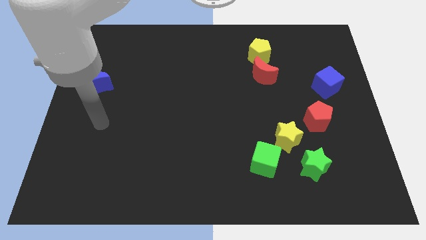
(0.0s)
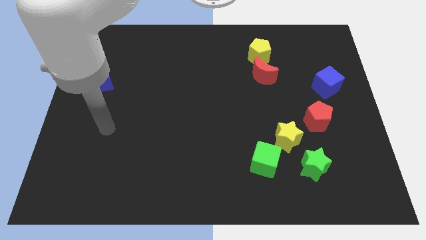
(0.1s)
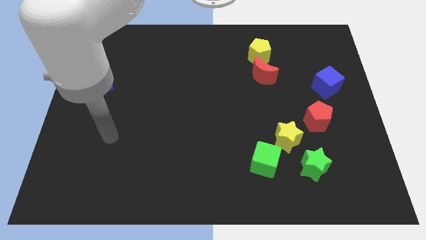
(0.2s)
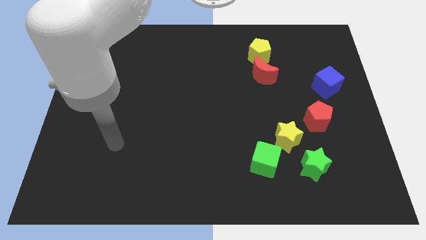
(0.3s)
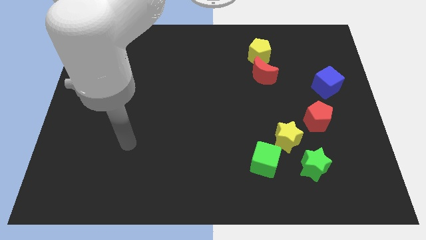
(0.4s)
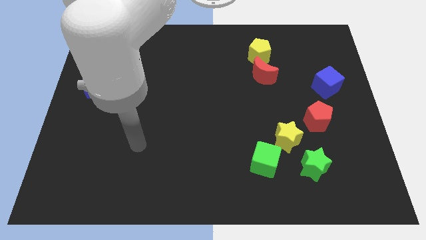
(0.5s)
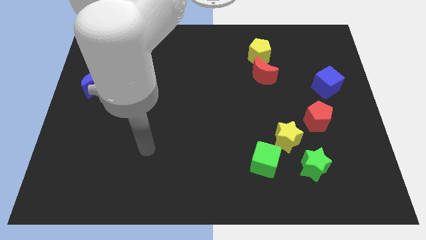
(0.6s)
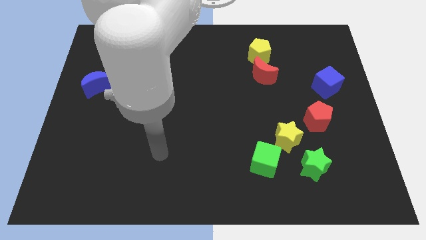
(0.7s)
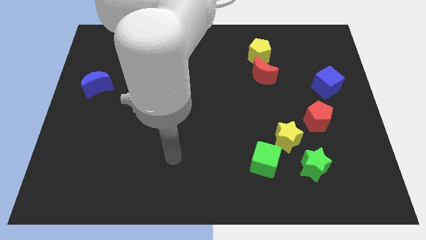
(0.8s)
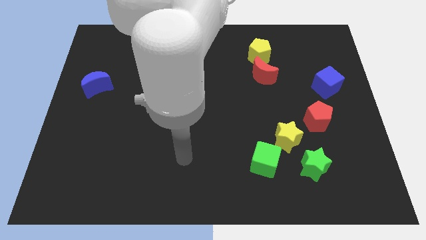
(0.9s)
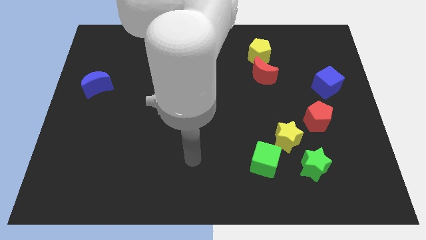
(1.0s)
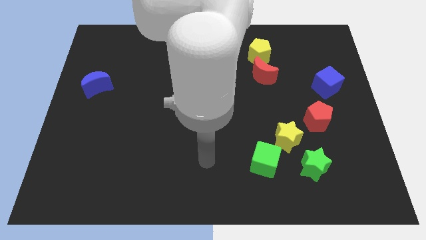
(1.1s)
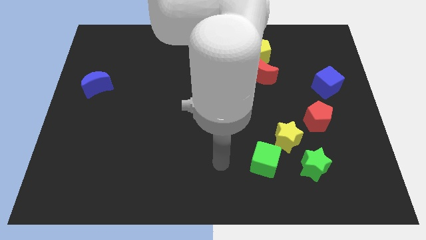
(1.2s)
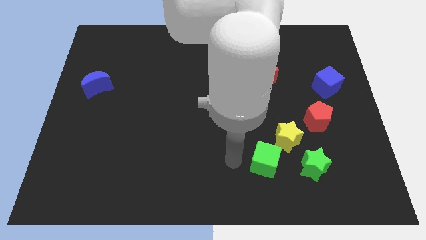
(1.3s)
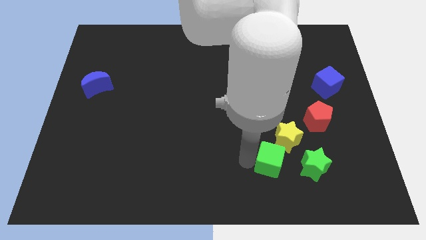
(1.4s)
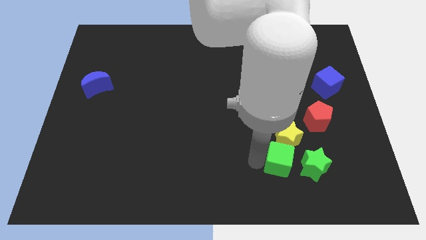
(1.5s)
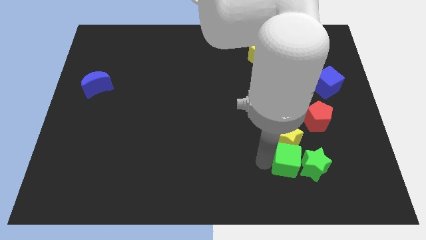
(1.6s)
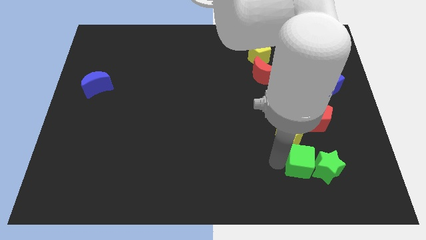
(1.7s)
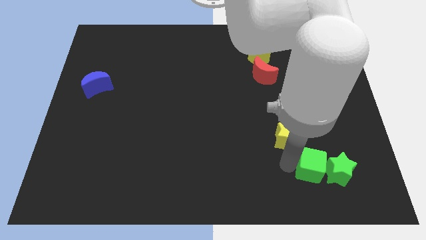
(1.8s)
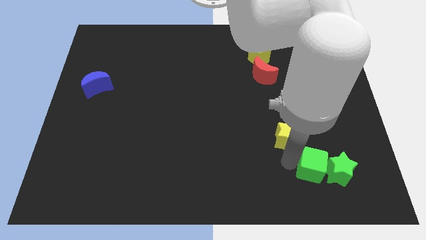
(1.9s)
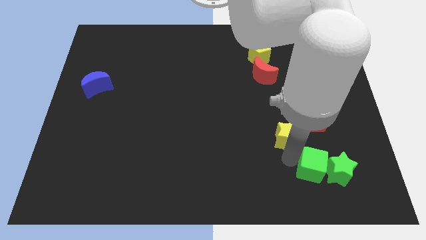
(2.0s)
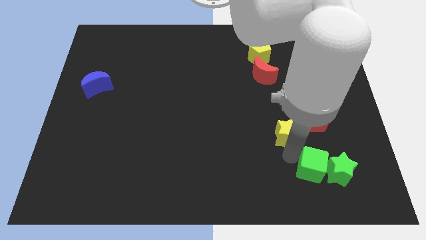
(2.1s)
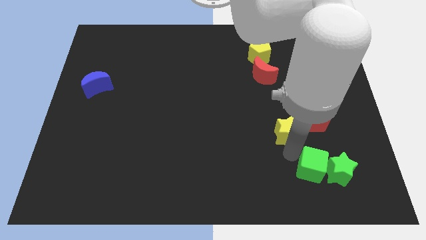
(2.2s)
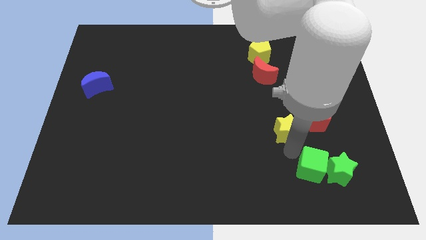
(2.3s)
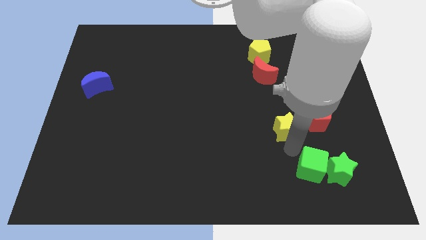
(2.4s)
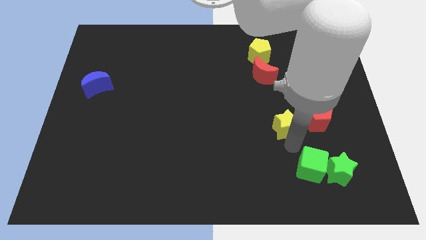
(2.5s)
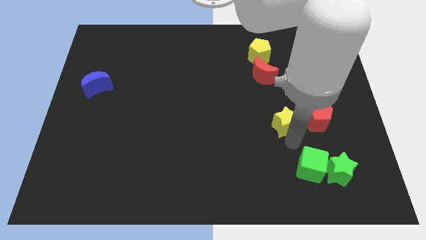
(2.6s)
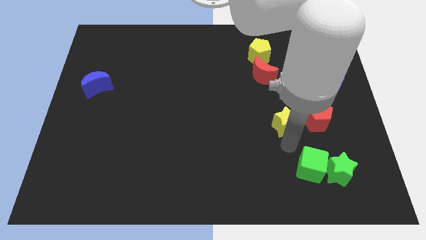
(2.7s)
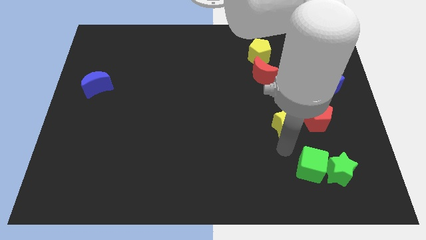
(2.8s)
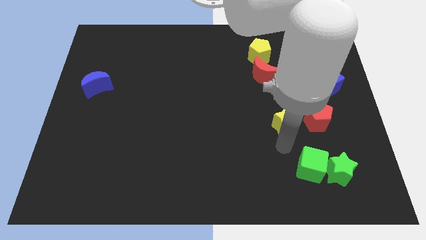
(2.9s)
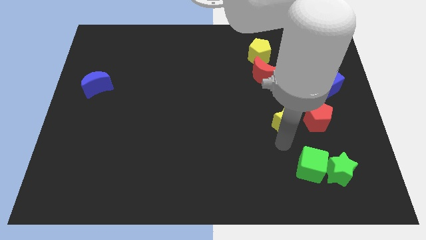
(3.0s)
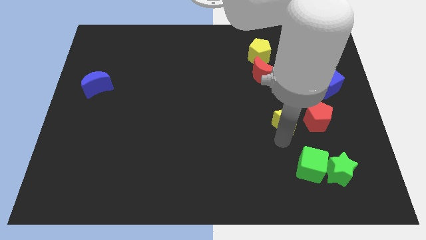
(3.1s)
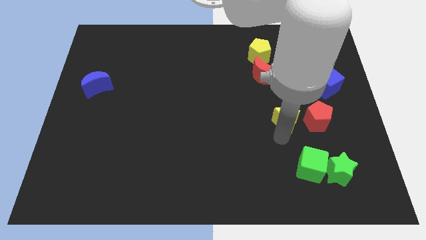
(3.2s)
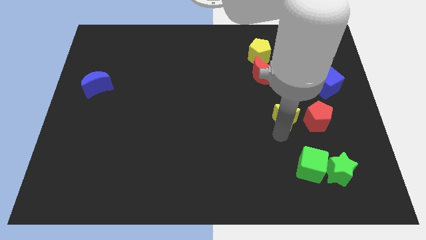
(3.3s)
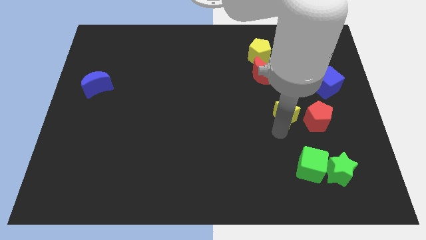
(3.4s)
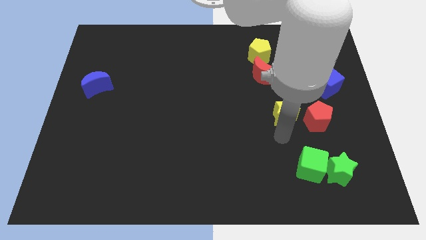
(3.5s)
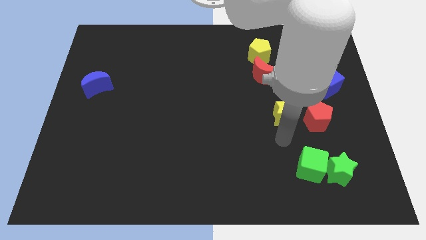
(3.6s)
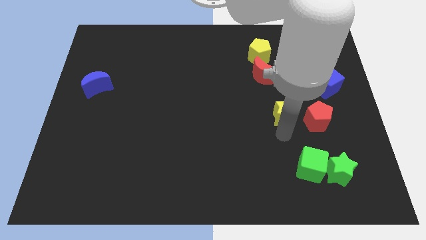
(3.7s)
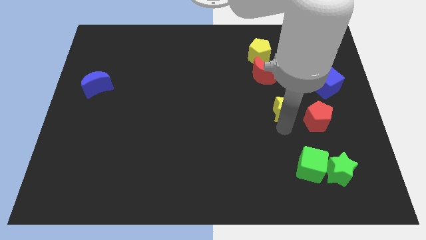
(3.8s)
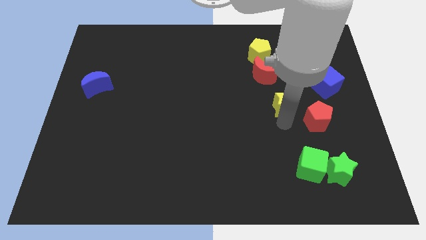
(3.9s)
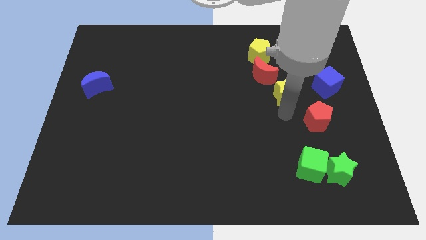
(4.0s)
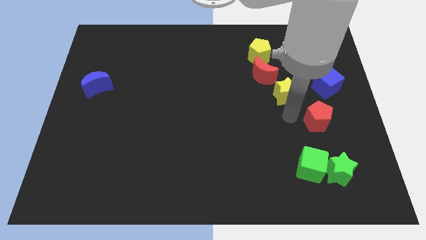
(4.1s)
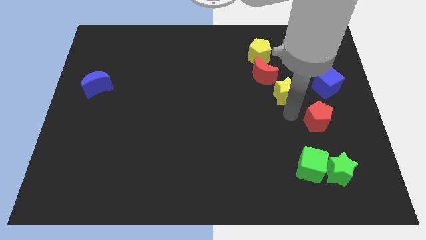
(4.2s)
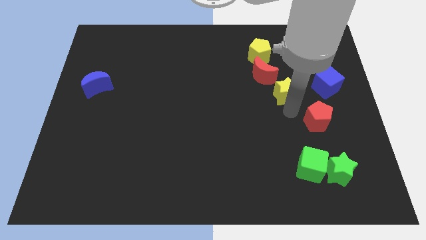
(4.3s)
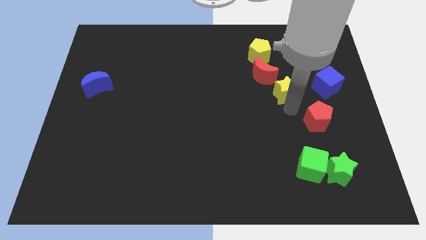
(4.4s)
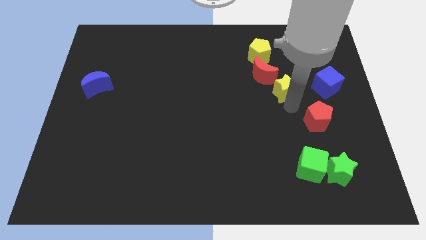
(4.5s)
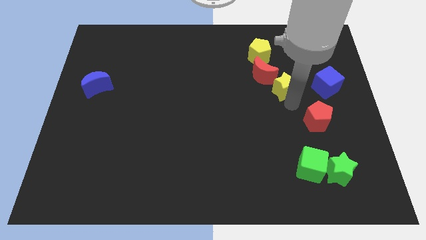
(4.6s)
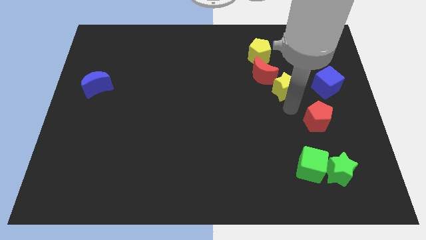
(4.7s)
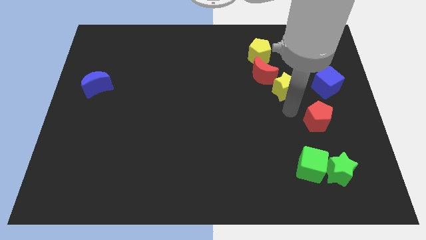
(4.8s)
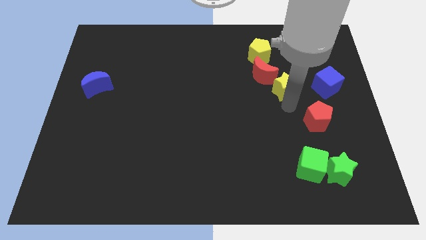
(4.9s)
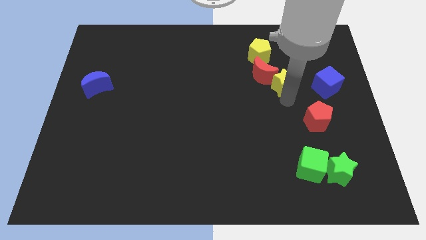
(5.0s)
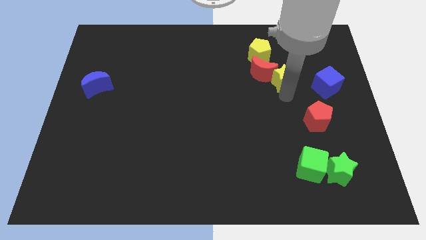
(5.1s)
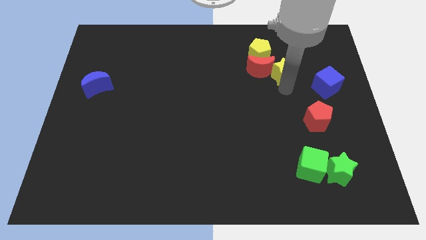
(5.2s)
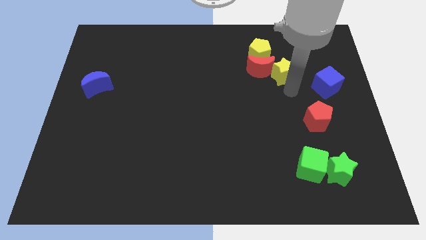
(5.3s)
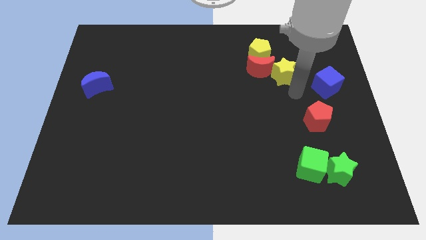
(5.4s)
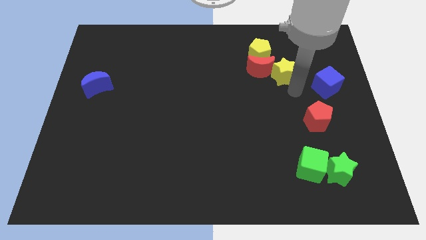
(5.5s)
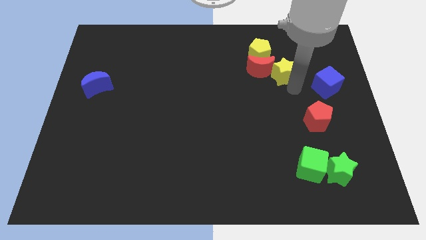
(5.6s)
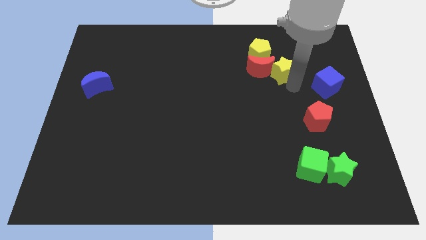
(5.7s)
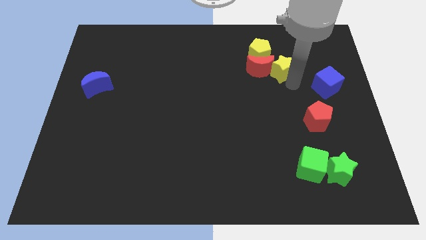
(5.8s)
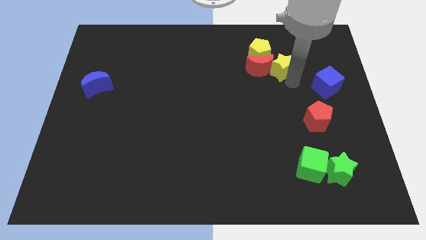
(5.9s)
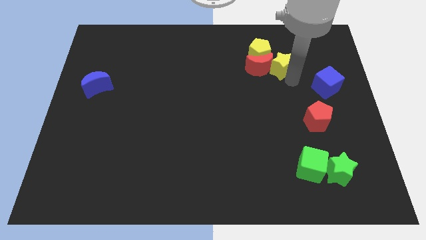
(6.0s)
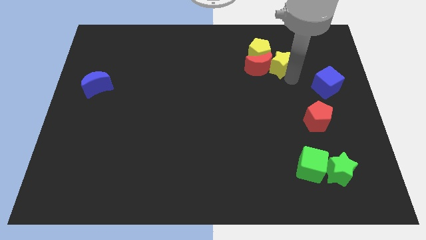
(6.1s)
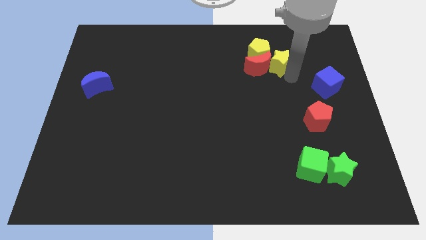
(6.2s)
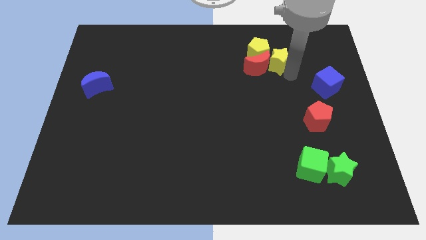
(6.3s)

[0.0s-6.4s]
slide the yellow star to the yellow pentagon

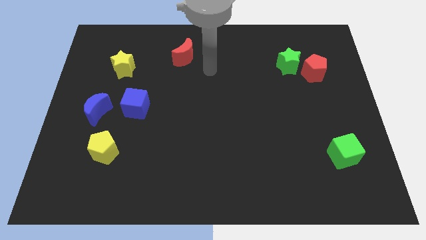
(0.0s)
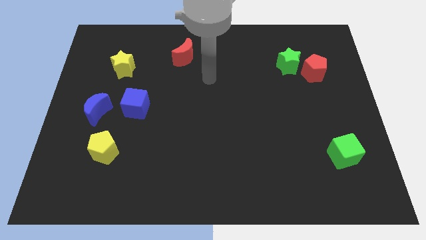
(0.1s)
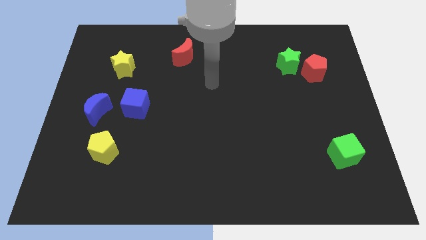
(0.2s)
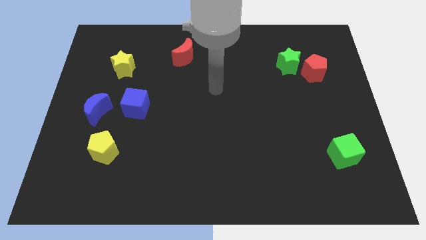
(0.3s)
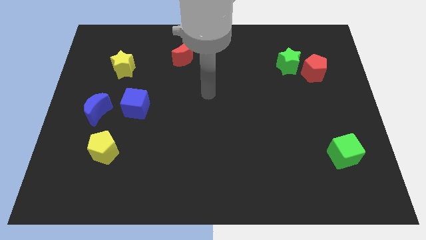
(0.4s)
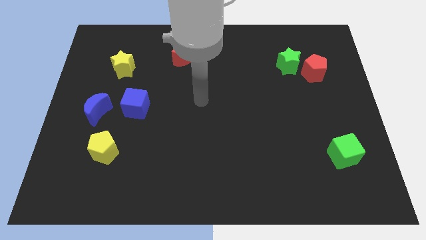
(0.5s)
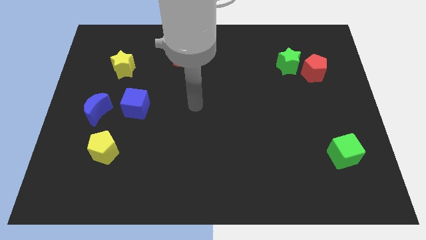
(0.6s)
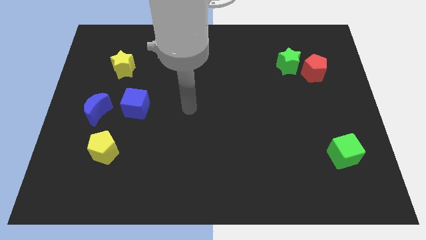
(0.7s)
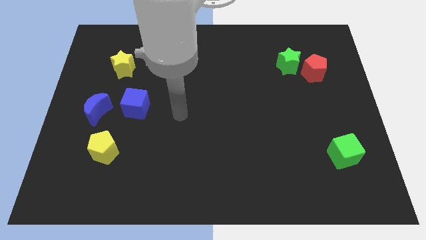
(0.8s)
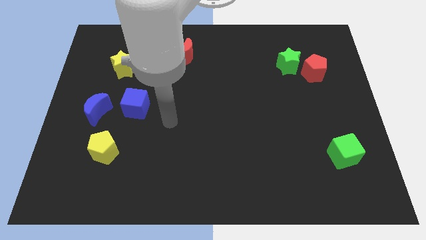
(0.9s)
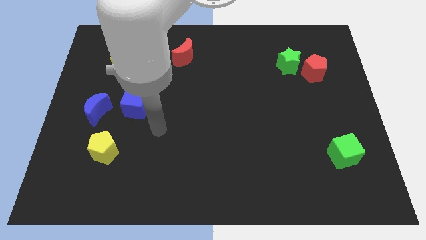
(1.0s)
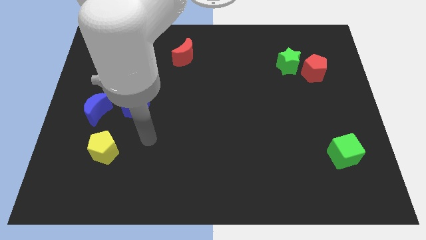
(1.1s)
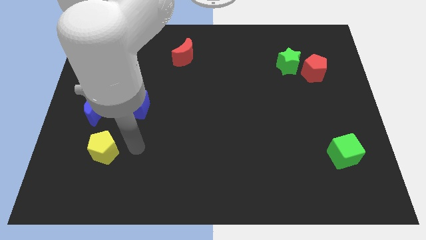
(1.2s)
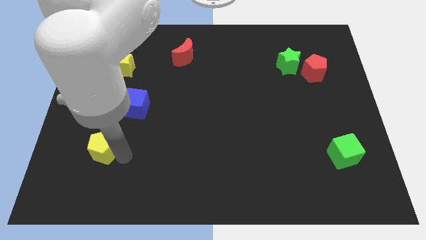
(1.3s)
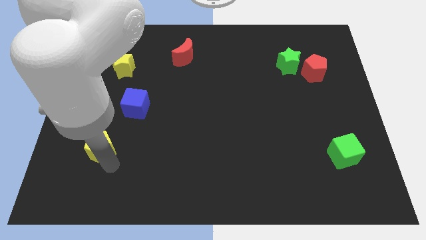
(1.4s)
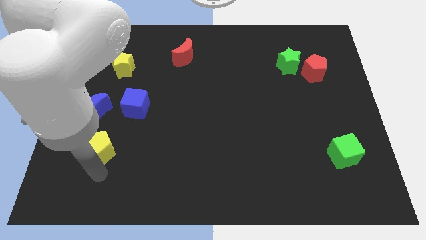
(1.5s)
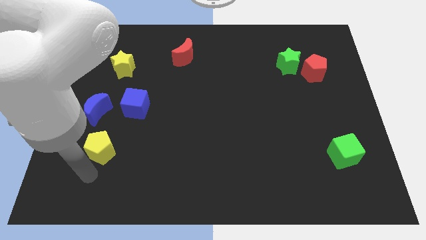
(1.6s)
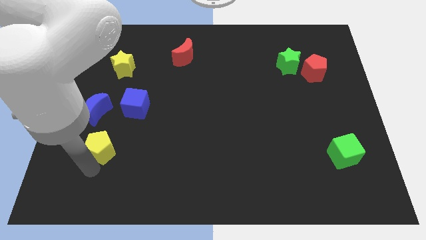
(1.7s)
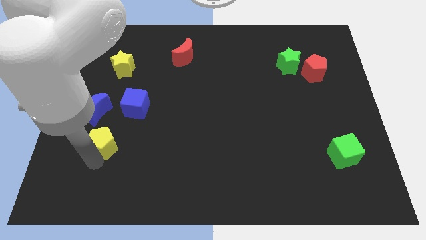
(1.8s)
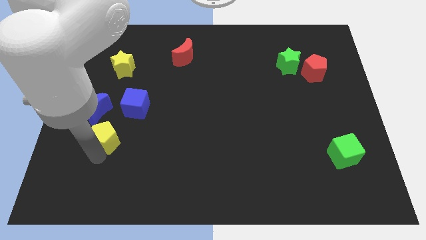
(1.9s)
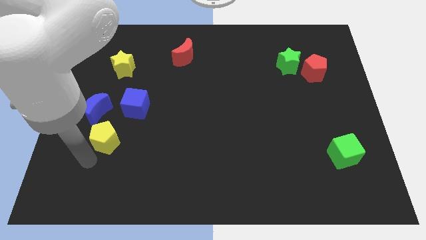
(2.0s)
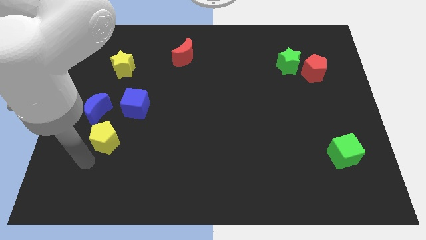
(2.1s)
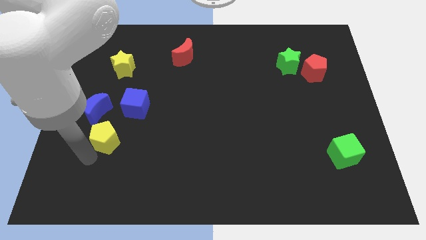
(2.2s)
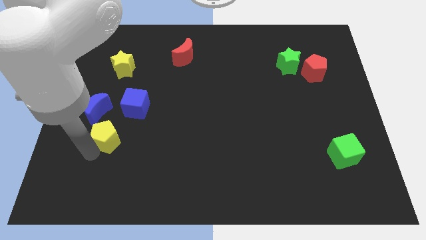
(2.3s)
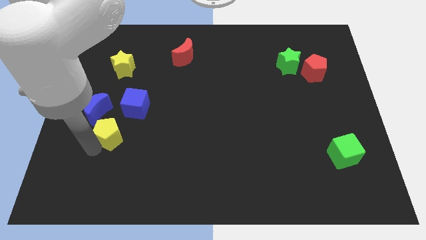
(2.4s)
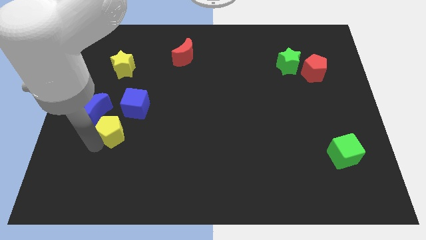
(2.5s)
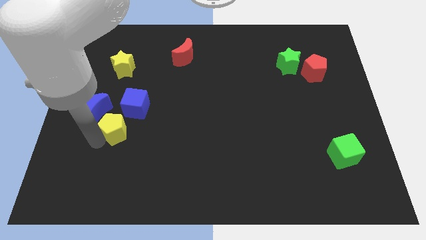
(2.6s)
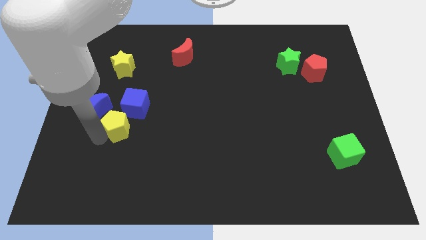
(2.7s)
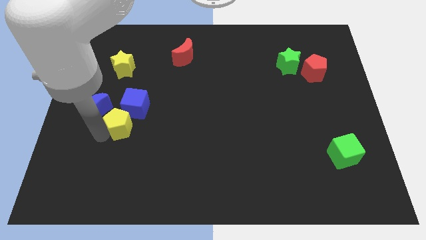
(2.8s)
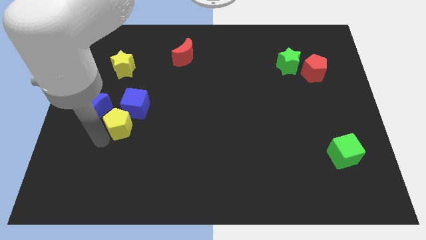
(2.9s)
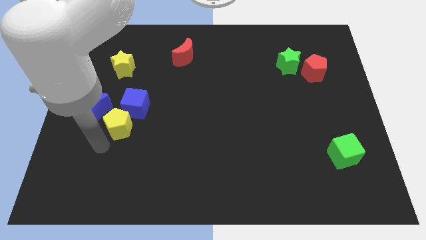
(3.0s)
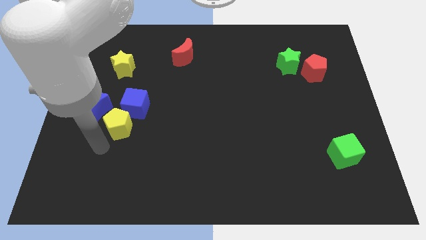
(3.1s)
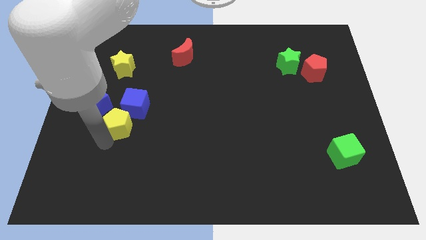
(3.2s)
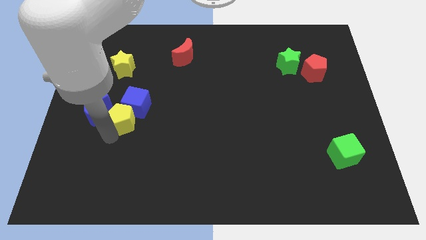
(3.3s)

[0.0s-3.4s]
put the yellow pentagon close to the blue cube
